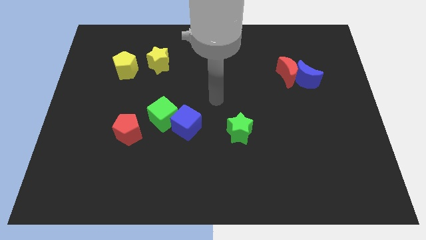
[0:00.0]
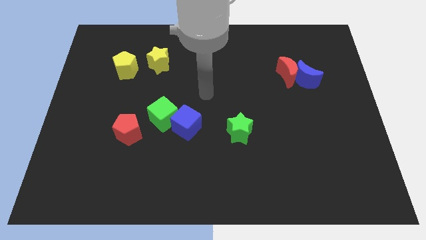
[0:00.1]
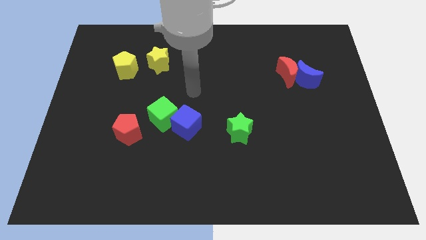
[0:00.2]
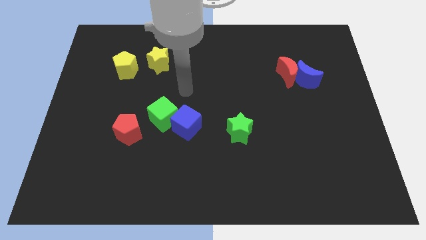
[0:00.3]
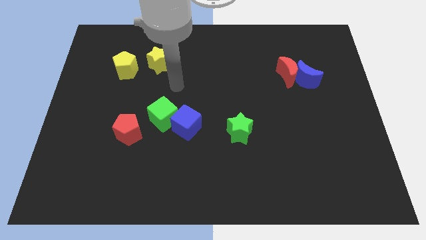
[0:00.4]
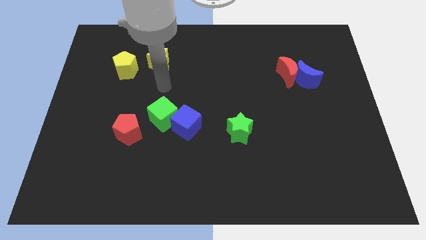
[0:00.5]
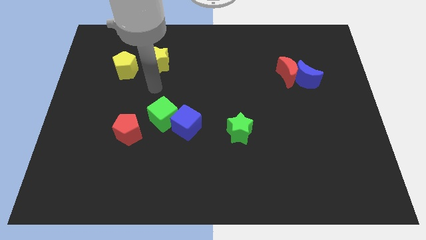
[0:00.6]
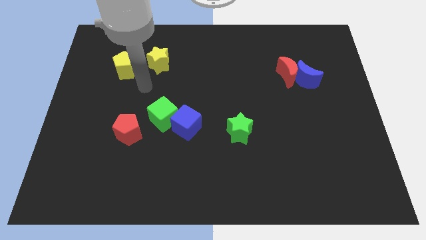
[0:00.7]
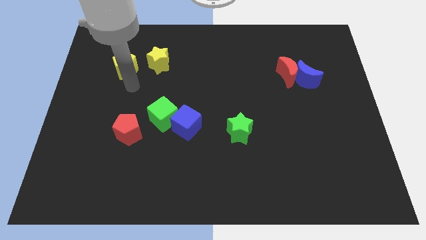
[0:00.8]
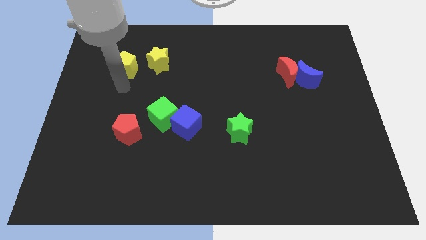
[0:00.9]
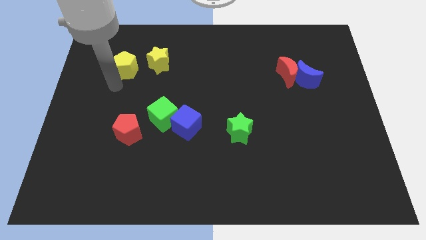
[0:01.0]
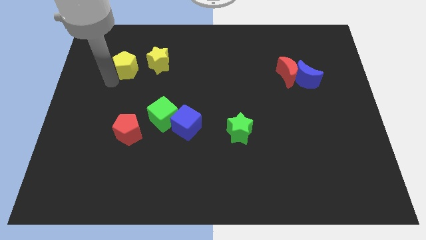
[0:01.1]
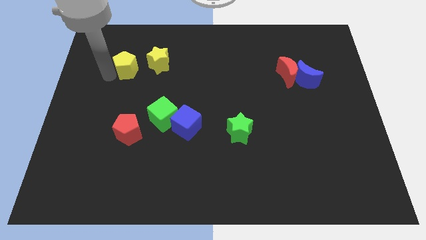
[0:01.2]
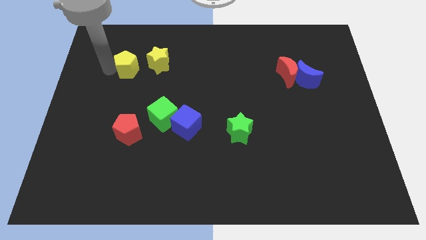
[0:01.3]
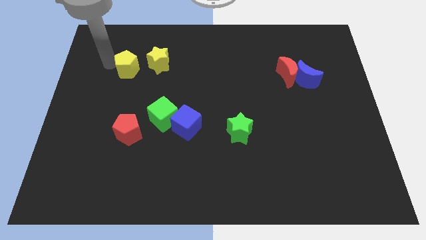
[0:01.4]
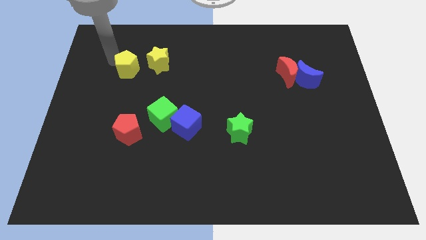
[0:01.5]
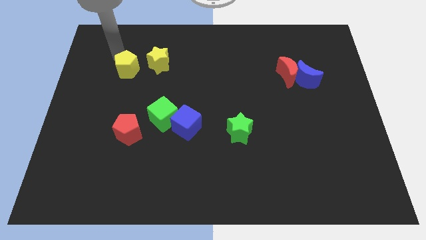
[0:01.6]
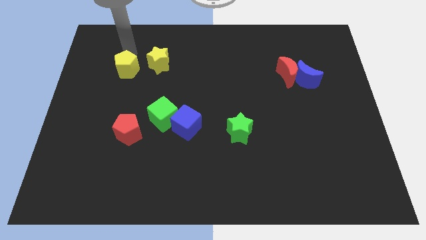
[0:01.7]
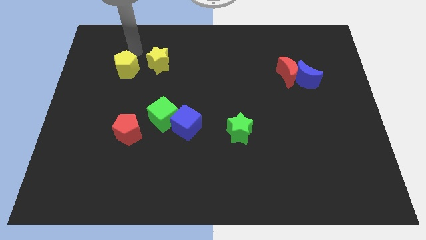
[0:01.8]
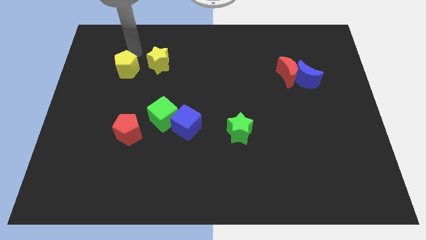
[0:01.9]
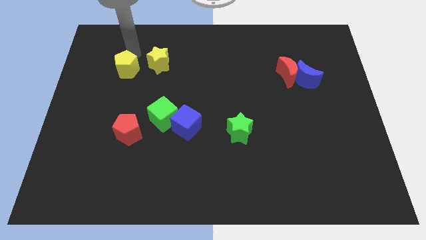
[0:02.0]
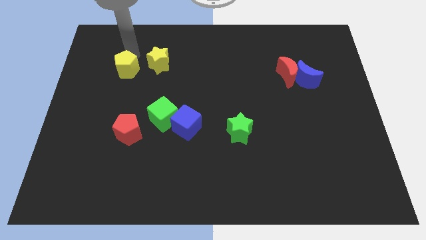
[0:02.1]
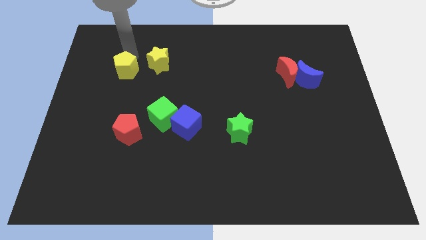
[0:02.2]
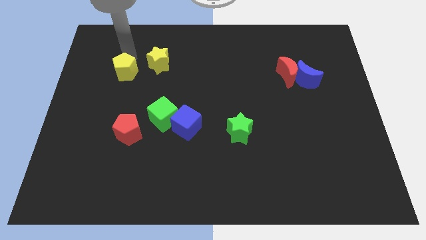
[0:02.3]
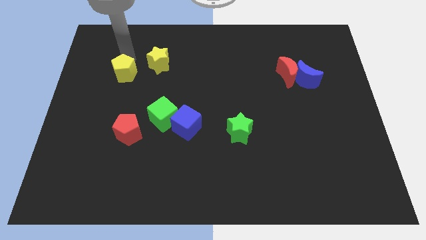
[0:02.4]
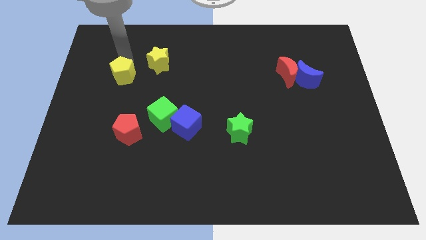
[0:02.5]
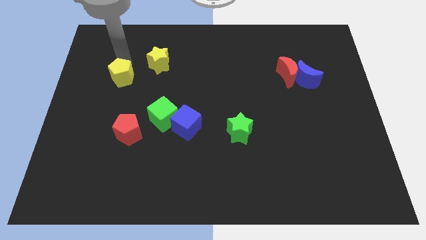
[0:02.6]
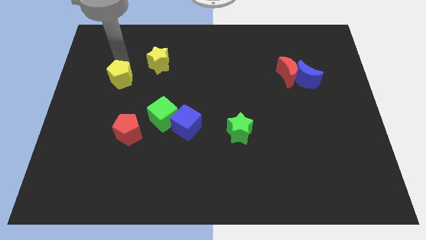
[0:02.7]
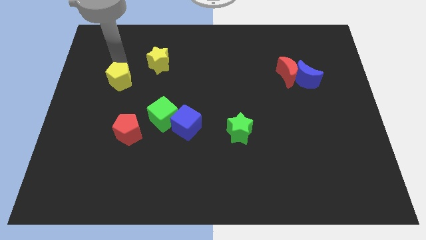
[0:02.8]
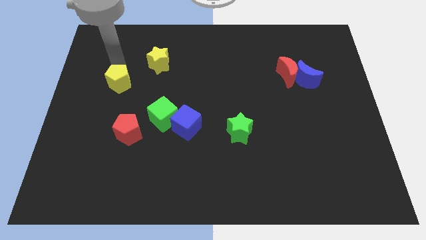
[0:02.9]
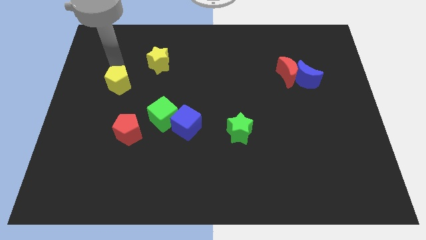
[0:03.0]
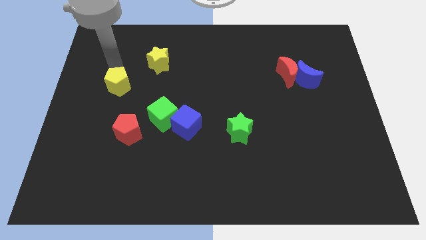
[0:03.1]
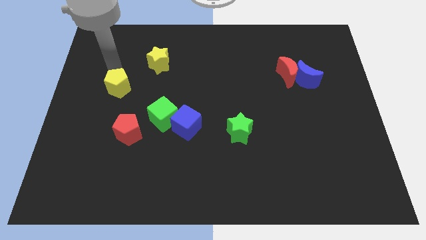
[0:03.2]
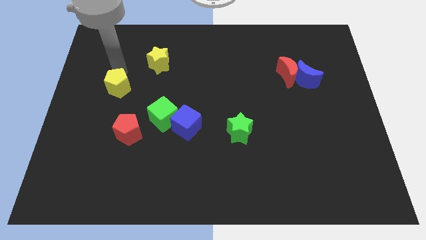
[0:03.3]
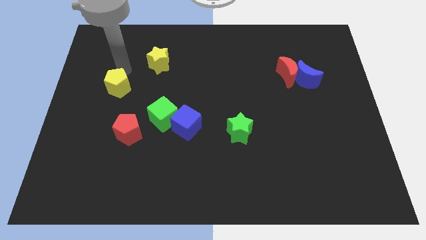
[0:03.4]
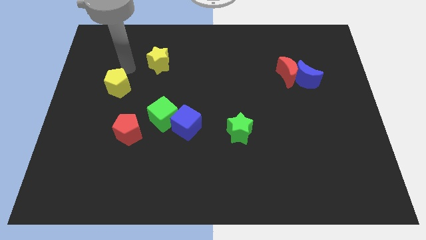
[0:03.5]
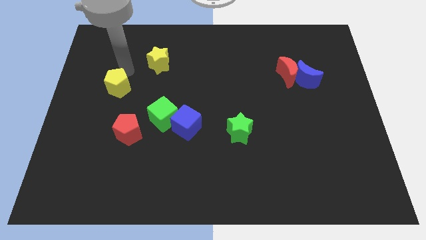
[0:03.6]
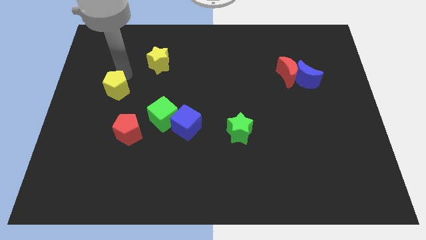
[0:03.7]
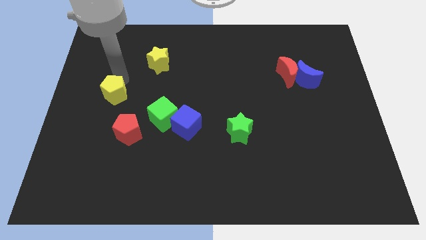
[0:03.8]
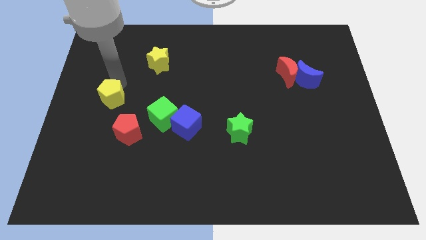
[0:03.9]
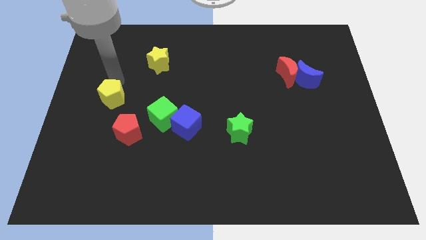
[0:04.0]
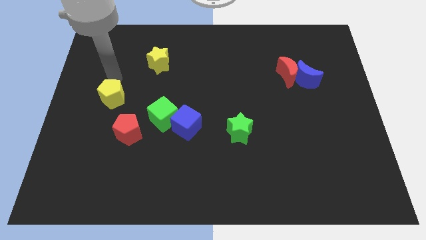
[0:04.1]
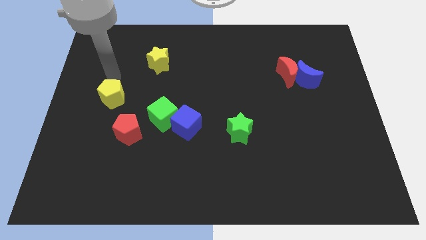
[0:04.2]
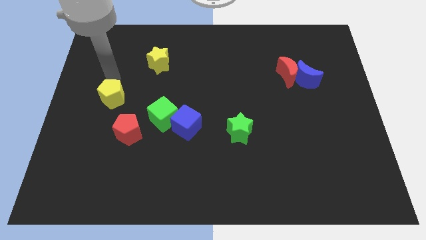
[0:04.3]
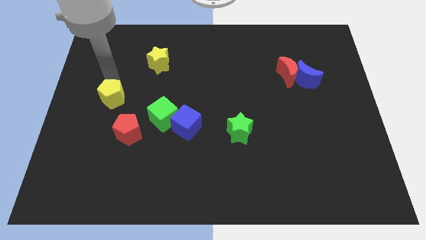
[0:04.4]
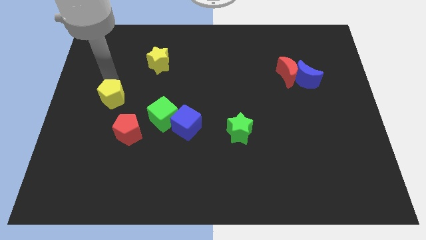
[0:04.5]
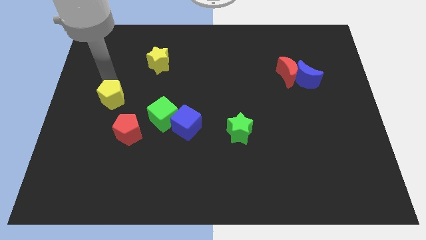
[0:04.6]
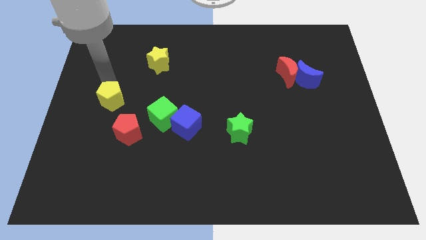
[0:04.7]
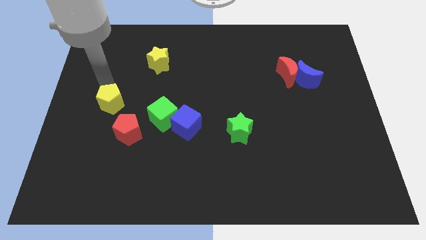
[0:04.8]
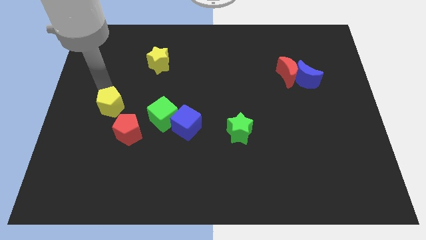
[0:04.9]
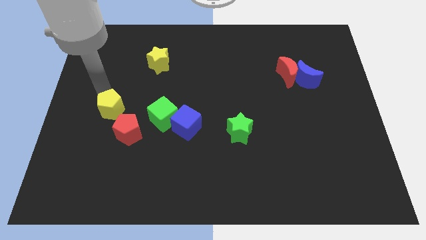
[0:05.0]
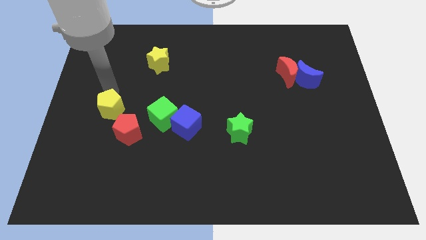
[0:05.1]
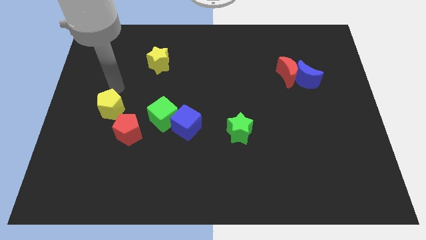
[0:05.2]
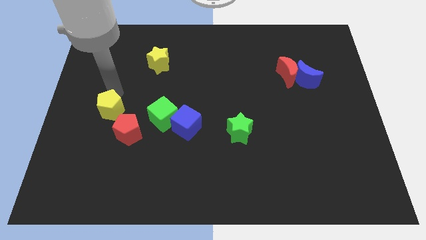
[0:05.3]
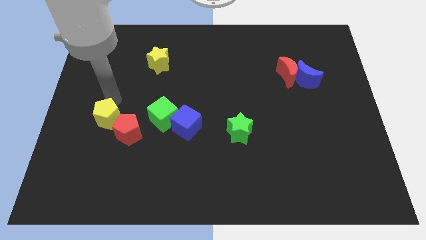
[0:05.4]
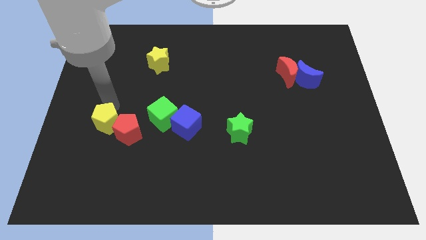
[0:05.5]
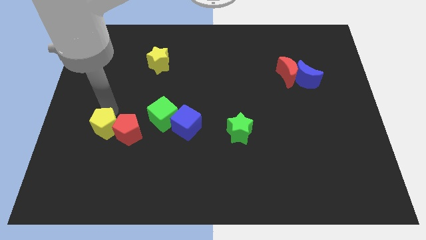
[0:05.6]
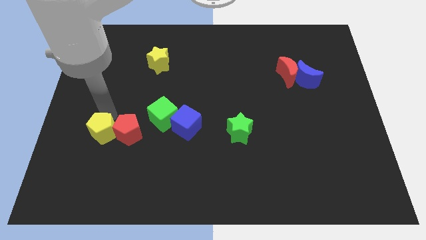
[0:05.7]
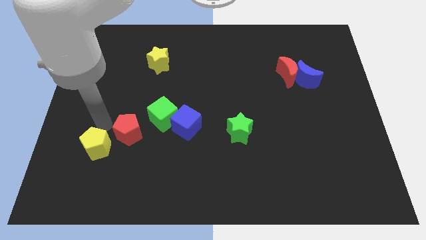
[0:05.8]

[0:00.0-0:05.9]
slide the yellow pentagon down

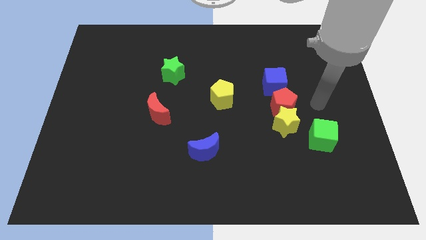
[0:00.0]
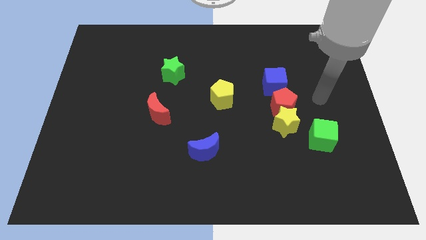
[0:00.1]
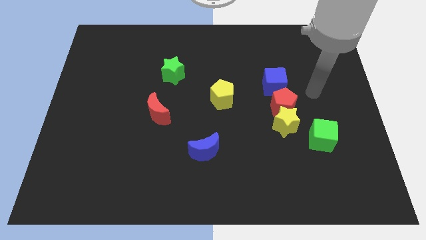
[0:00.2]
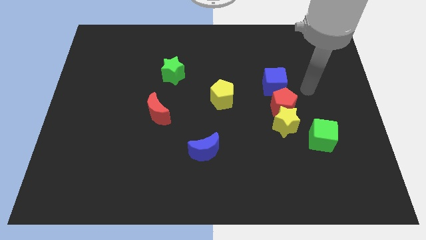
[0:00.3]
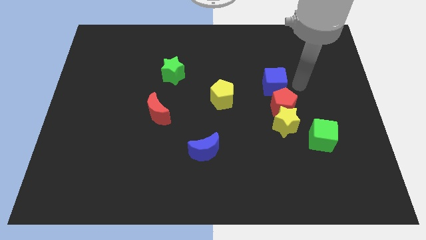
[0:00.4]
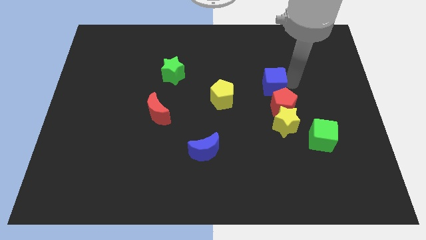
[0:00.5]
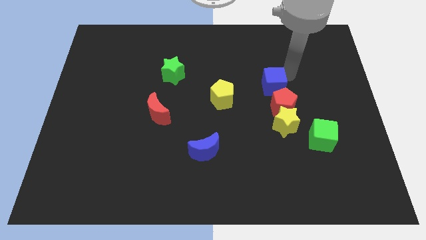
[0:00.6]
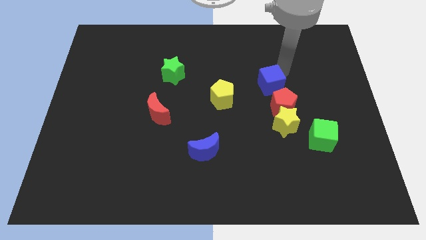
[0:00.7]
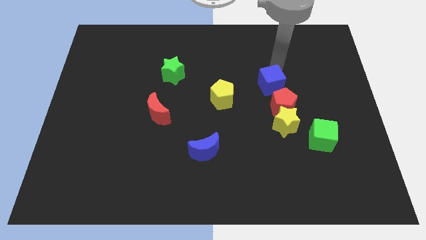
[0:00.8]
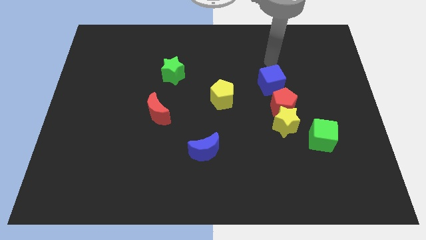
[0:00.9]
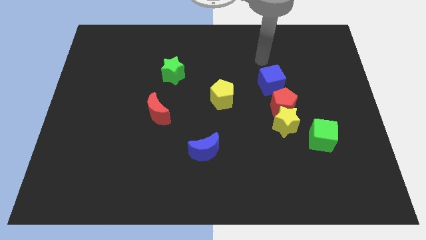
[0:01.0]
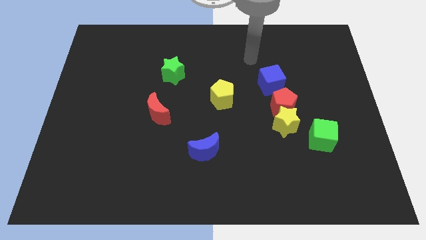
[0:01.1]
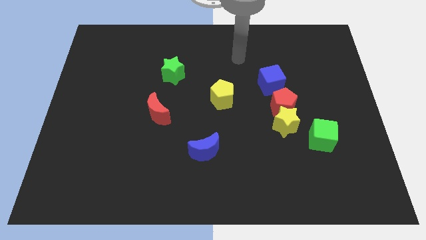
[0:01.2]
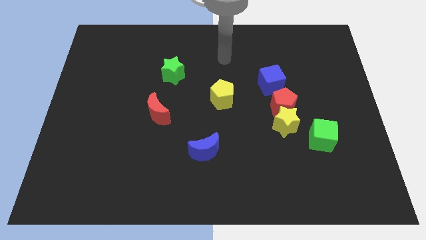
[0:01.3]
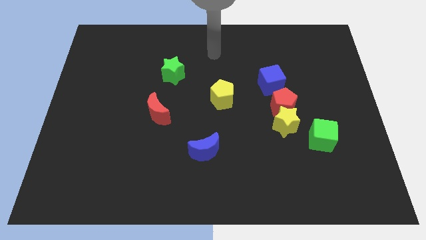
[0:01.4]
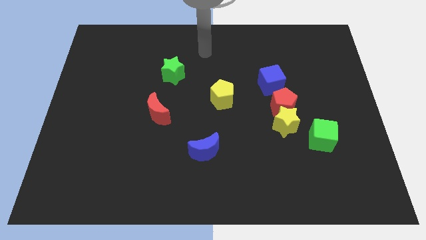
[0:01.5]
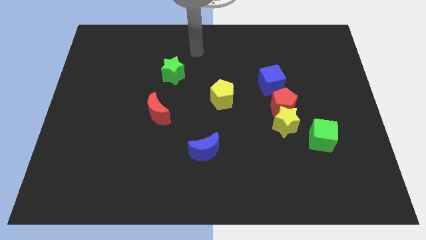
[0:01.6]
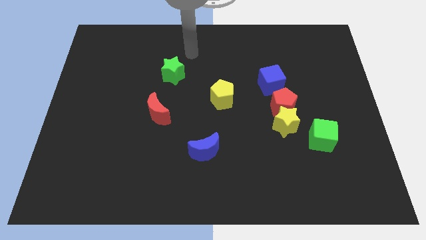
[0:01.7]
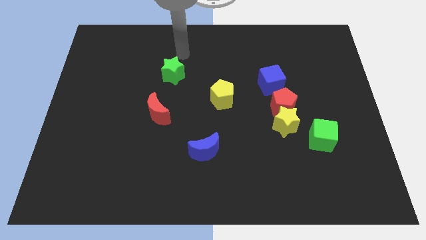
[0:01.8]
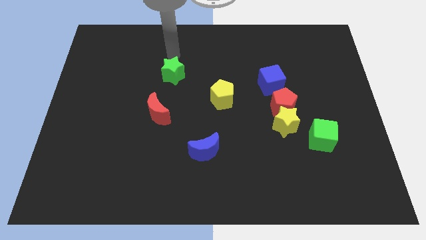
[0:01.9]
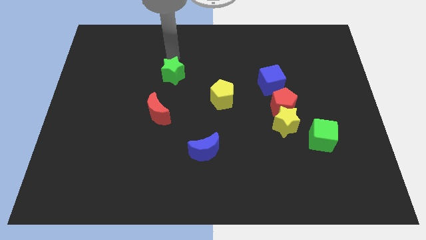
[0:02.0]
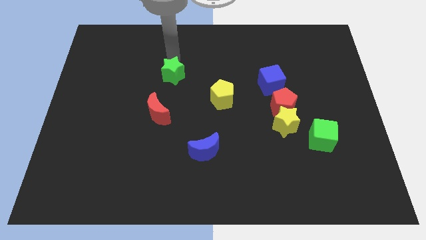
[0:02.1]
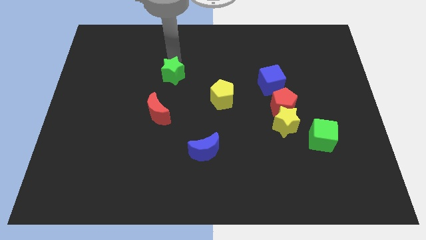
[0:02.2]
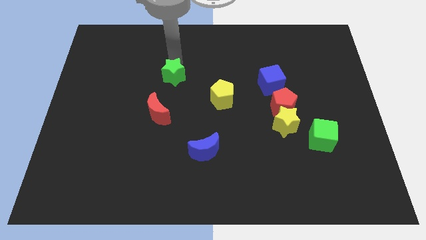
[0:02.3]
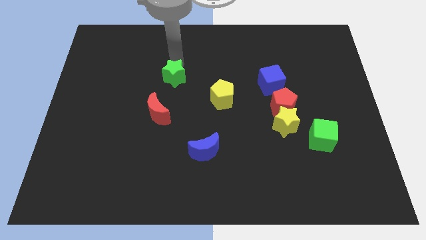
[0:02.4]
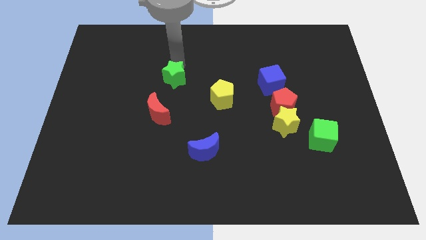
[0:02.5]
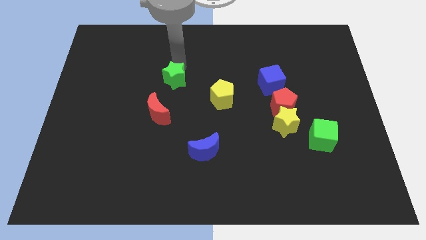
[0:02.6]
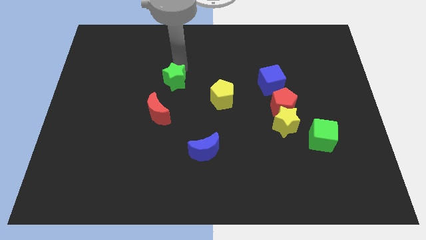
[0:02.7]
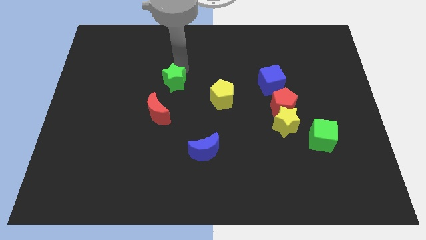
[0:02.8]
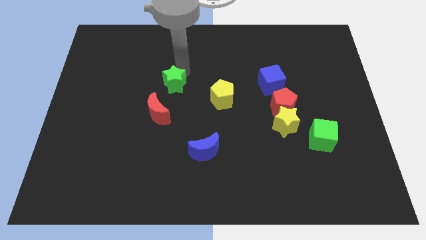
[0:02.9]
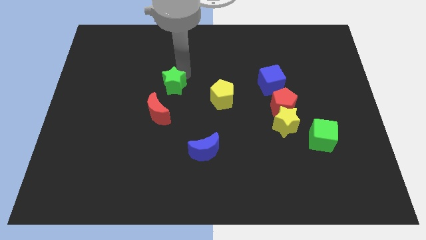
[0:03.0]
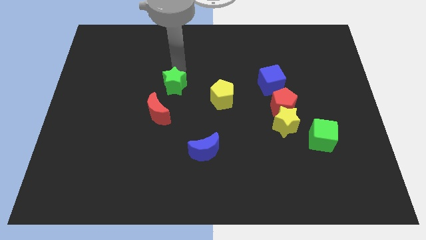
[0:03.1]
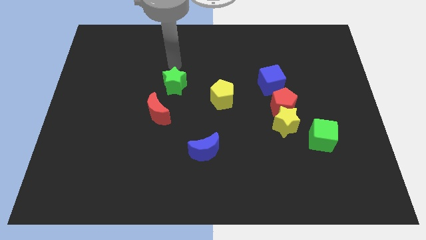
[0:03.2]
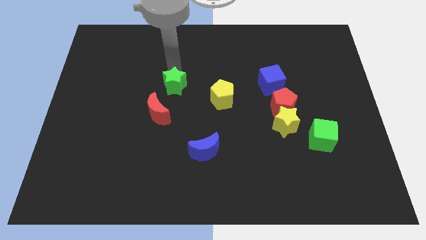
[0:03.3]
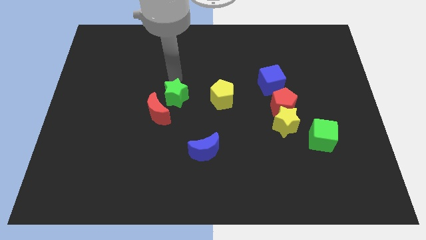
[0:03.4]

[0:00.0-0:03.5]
slightly push the green star downwards
